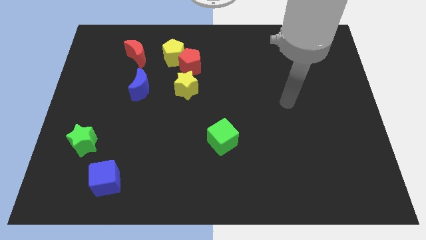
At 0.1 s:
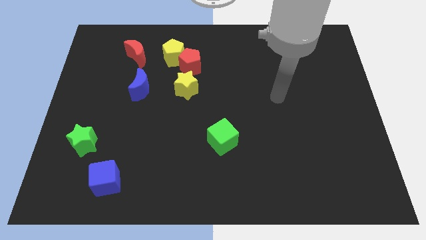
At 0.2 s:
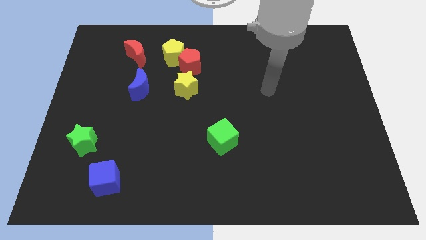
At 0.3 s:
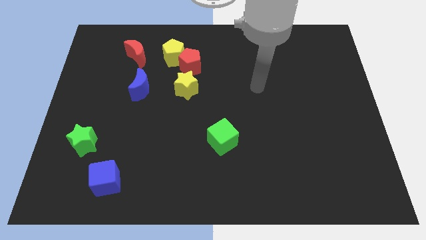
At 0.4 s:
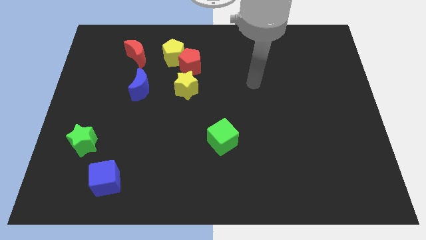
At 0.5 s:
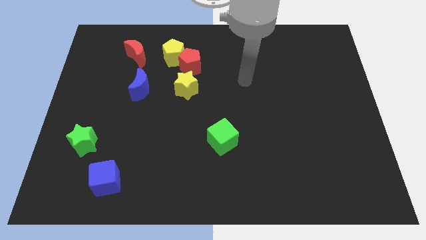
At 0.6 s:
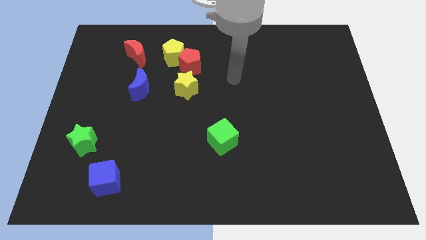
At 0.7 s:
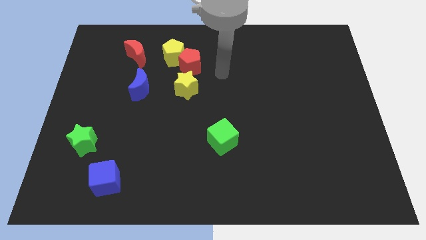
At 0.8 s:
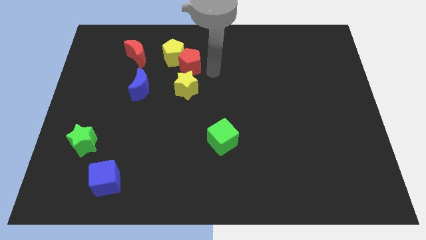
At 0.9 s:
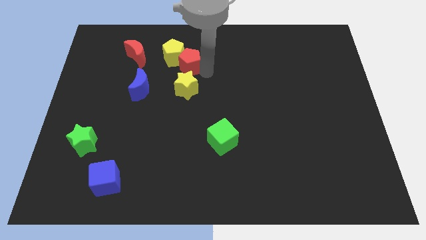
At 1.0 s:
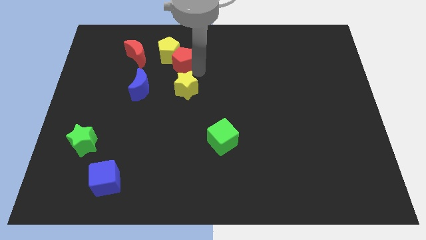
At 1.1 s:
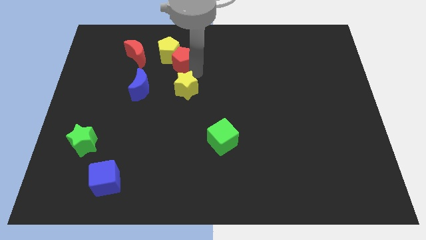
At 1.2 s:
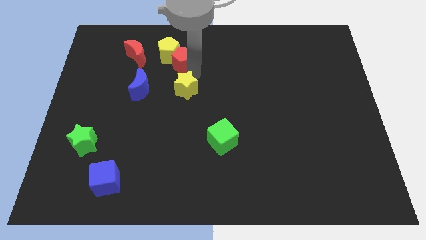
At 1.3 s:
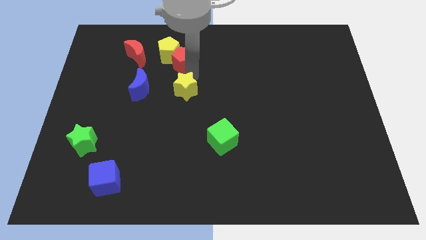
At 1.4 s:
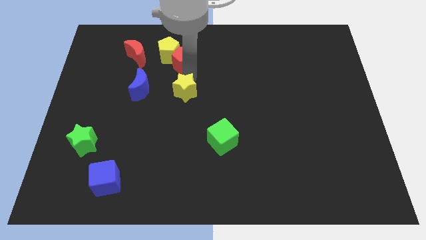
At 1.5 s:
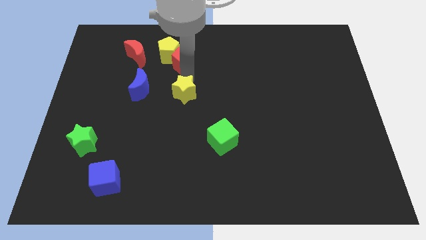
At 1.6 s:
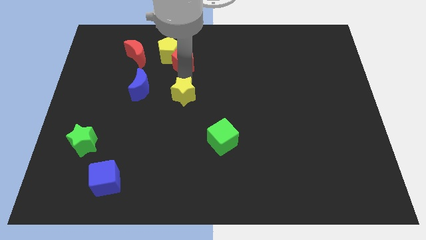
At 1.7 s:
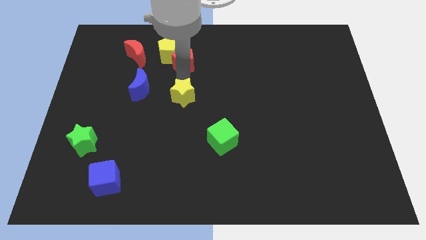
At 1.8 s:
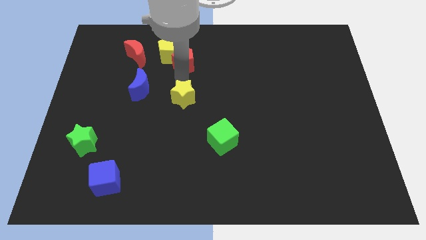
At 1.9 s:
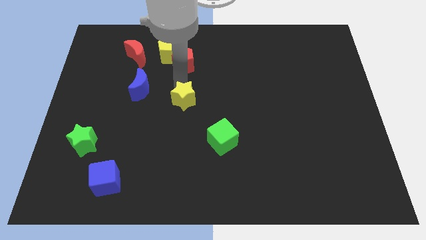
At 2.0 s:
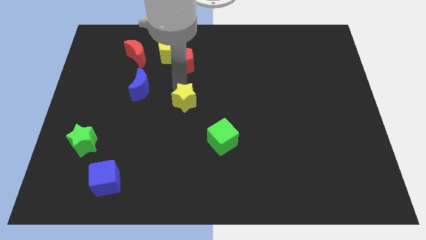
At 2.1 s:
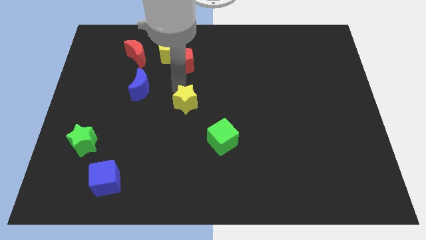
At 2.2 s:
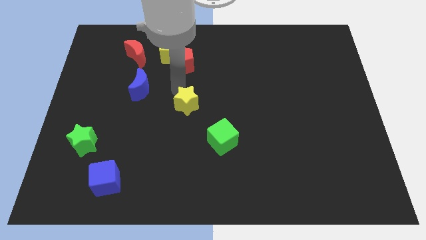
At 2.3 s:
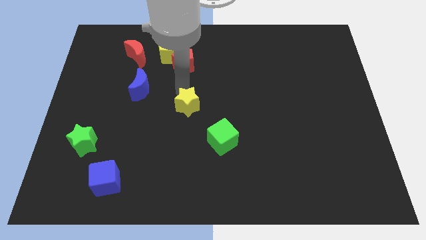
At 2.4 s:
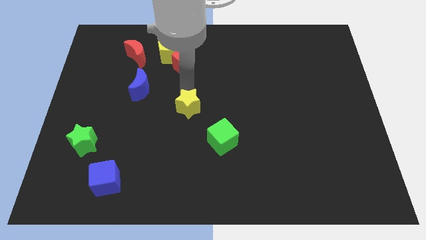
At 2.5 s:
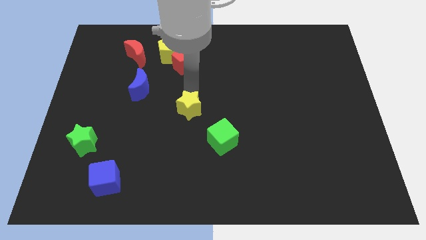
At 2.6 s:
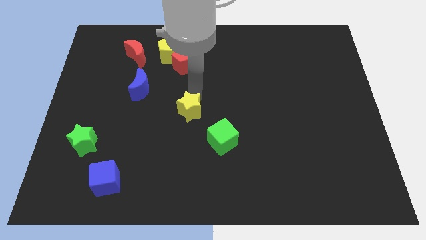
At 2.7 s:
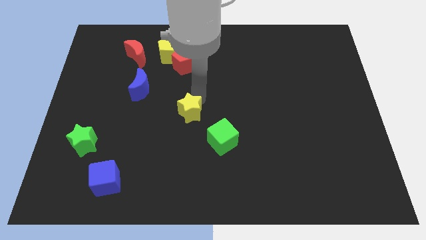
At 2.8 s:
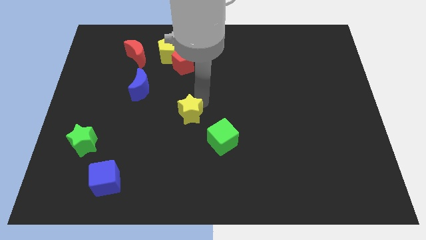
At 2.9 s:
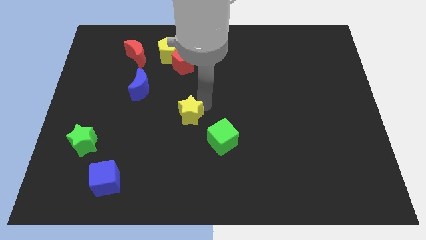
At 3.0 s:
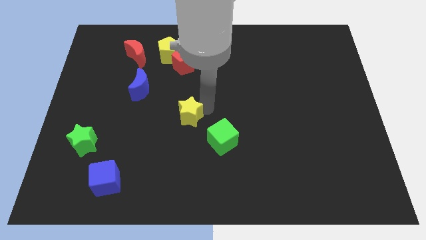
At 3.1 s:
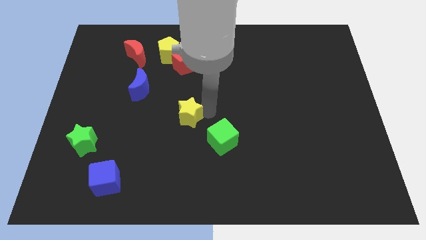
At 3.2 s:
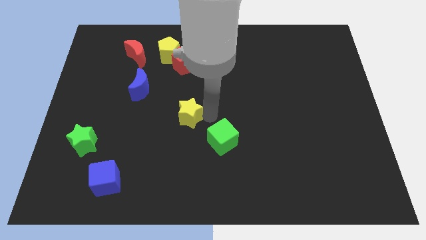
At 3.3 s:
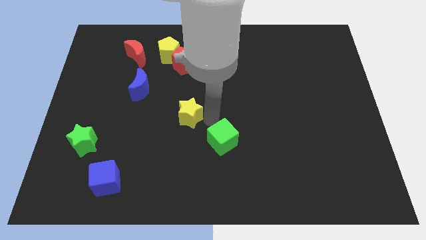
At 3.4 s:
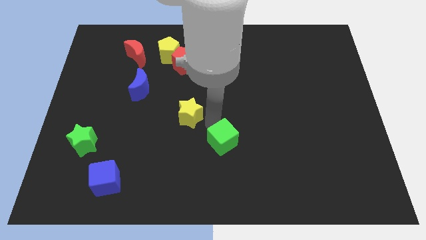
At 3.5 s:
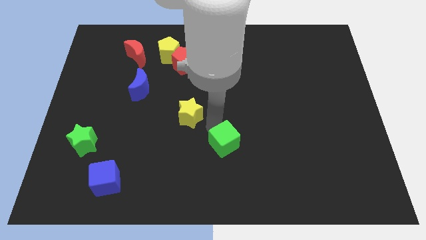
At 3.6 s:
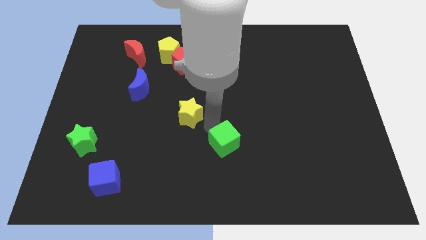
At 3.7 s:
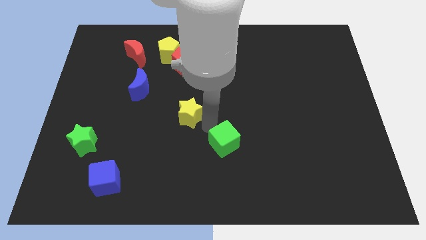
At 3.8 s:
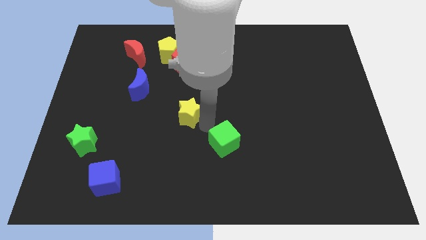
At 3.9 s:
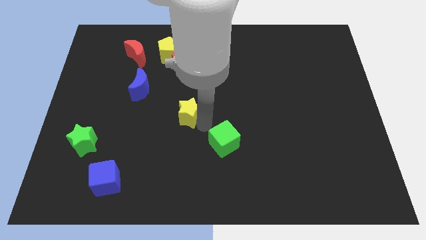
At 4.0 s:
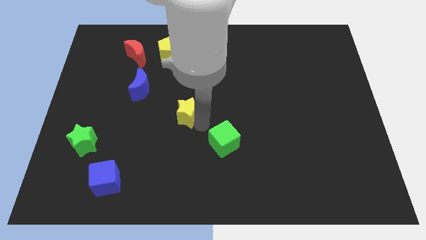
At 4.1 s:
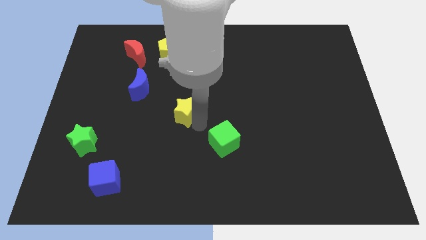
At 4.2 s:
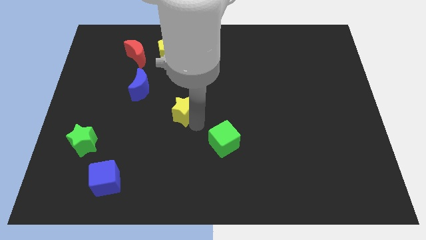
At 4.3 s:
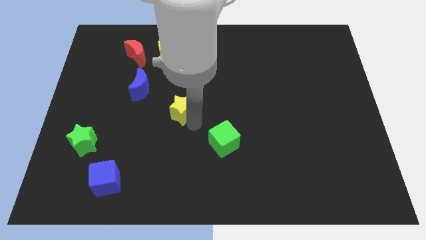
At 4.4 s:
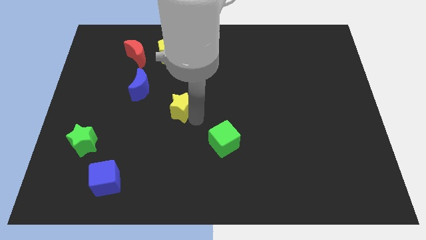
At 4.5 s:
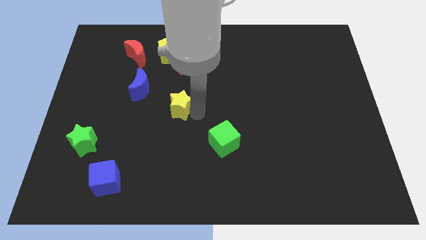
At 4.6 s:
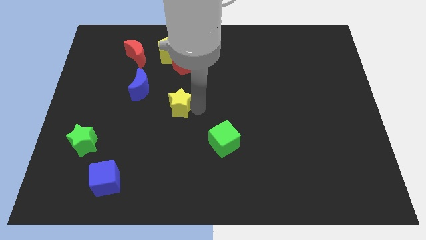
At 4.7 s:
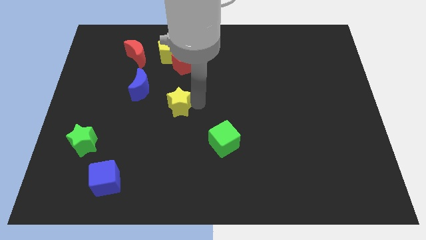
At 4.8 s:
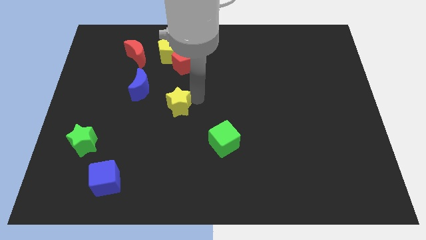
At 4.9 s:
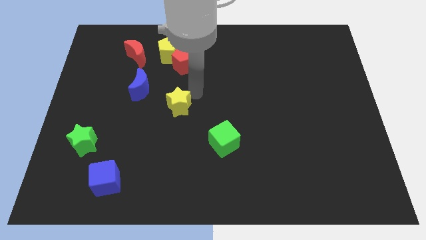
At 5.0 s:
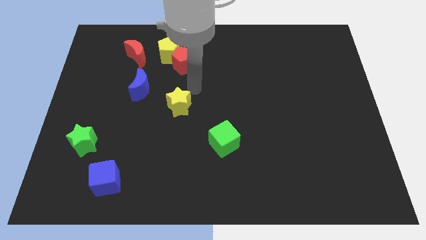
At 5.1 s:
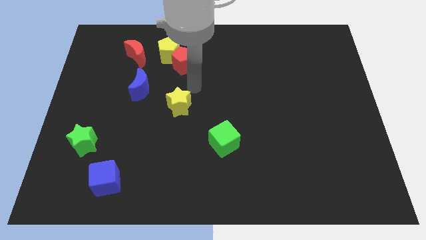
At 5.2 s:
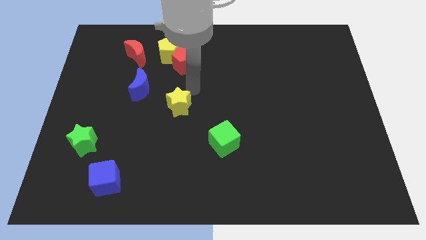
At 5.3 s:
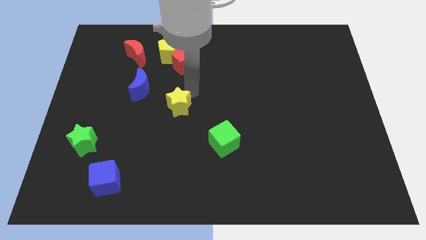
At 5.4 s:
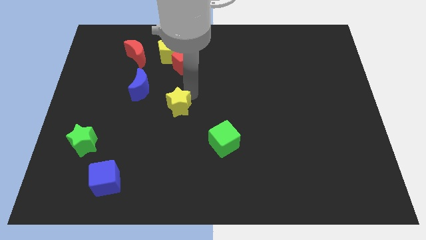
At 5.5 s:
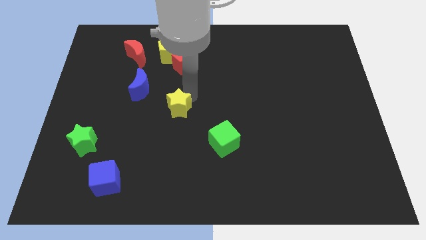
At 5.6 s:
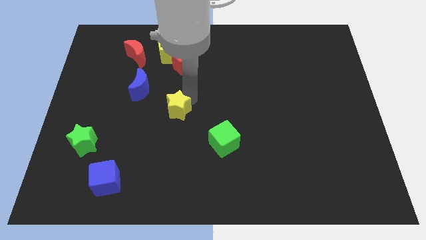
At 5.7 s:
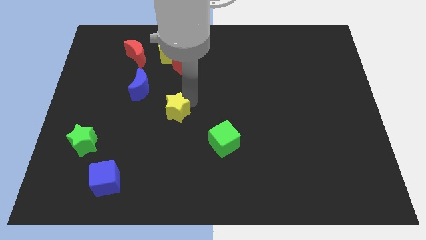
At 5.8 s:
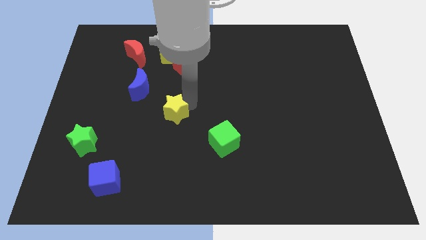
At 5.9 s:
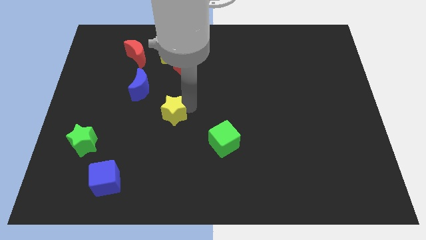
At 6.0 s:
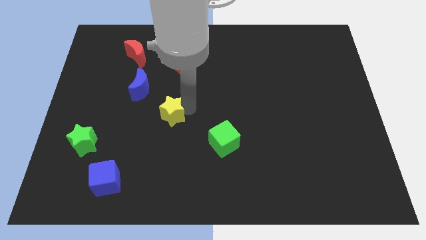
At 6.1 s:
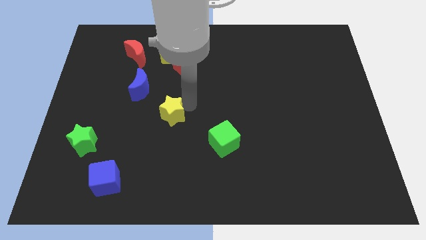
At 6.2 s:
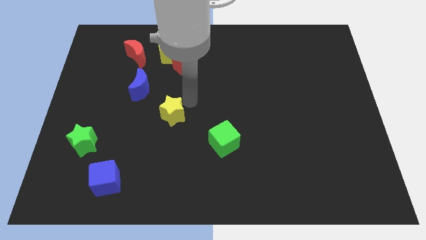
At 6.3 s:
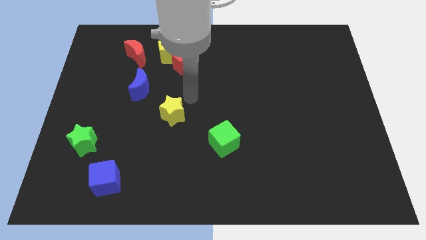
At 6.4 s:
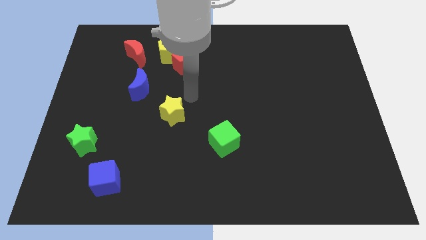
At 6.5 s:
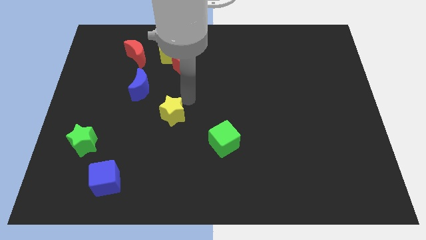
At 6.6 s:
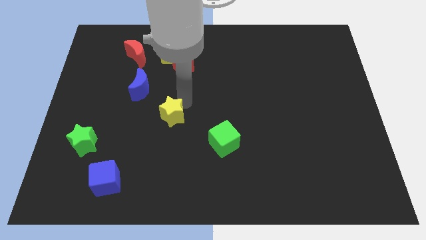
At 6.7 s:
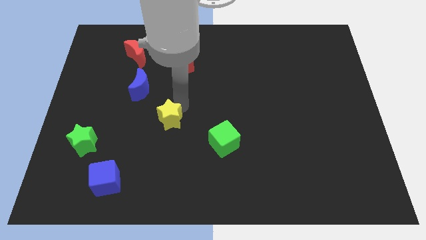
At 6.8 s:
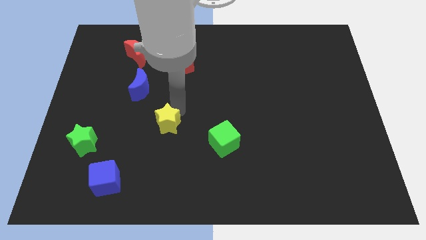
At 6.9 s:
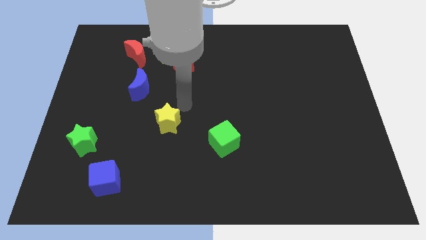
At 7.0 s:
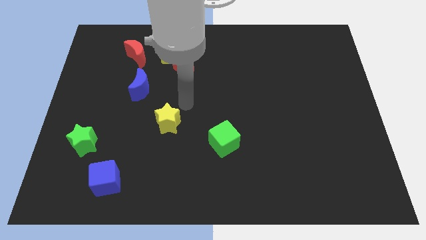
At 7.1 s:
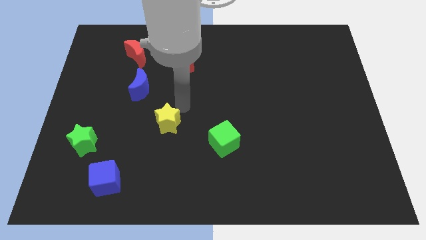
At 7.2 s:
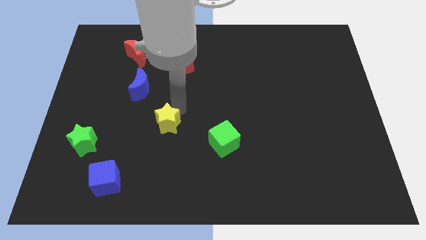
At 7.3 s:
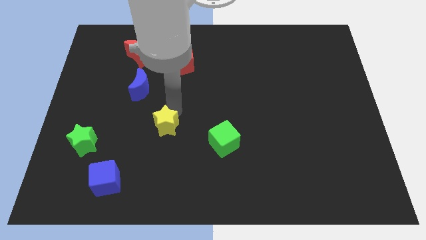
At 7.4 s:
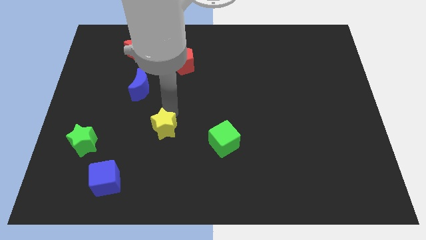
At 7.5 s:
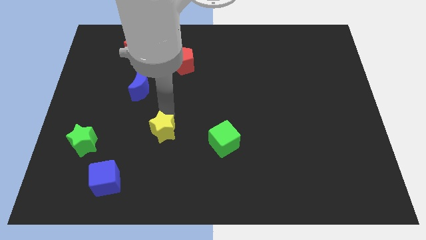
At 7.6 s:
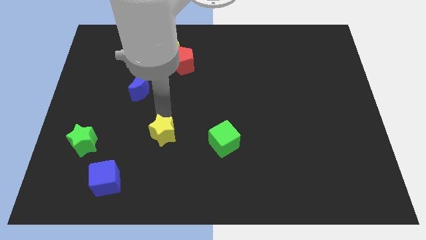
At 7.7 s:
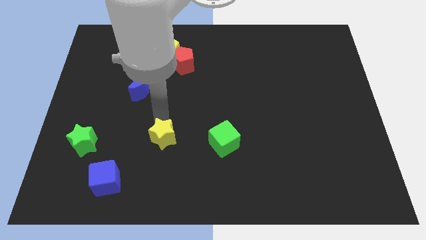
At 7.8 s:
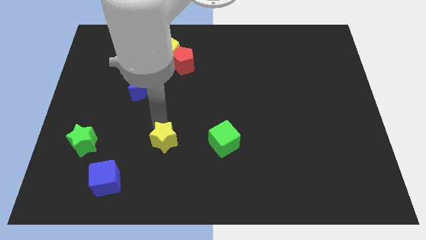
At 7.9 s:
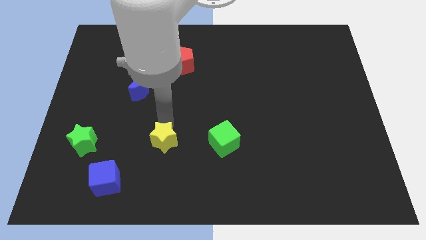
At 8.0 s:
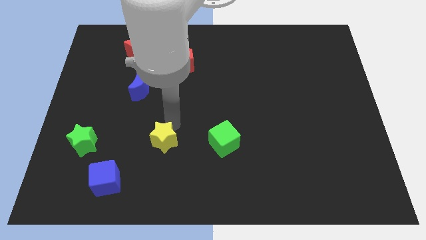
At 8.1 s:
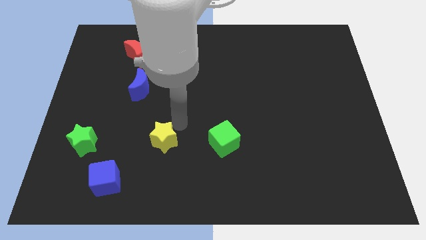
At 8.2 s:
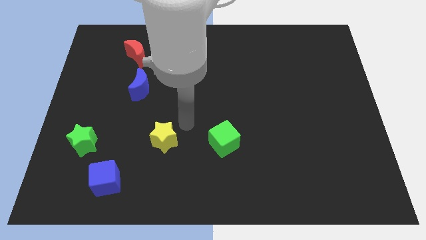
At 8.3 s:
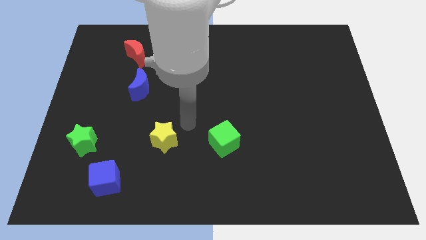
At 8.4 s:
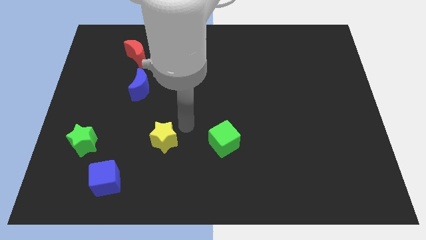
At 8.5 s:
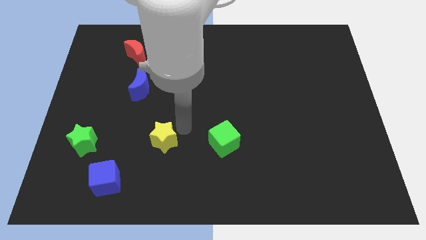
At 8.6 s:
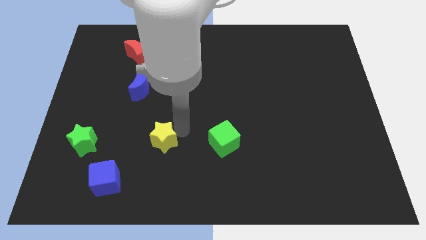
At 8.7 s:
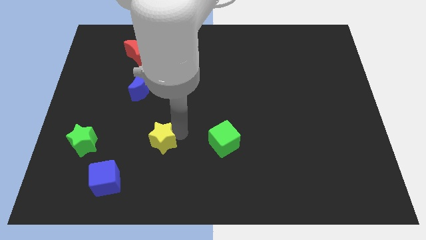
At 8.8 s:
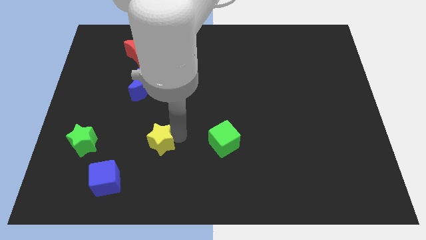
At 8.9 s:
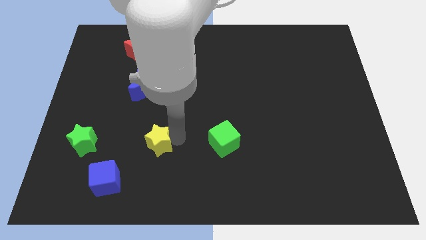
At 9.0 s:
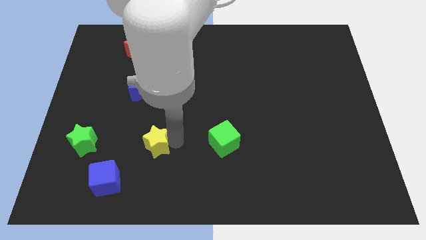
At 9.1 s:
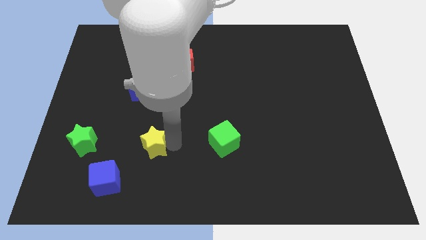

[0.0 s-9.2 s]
push the yellow star to the top right side of the blue cube
